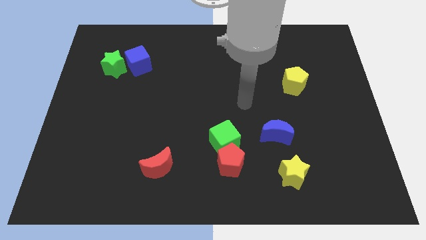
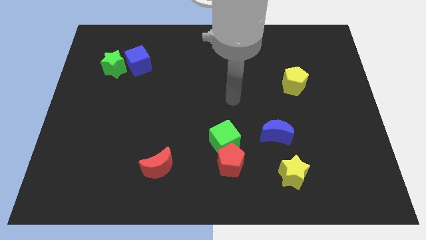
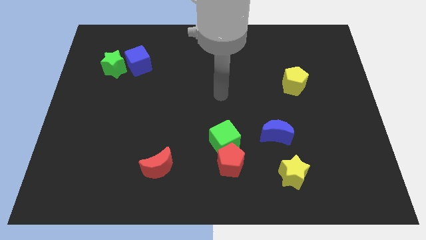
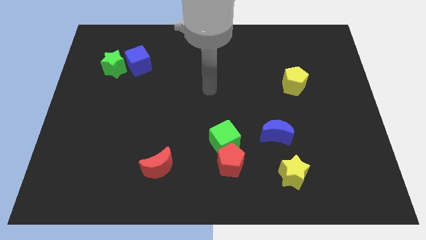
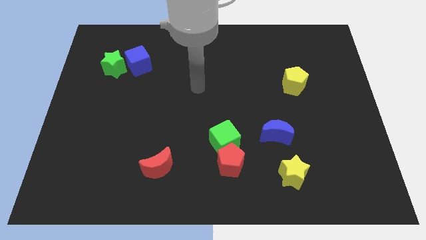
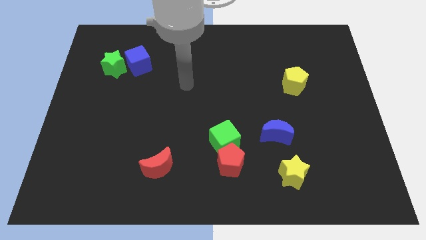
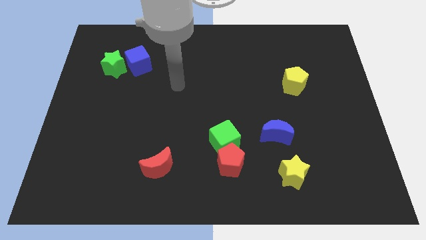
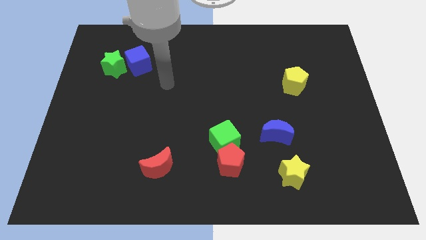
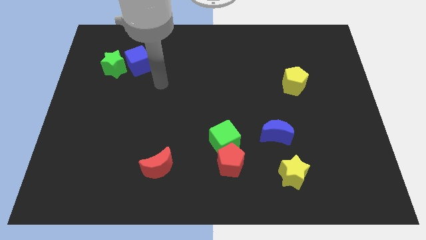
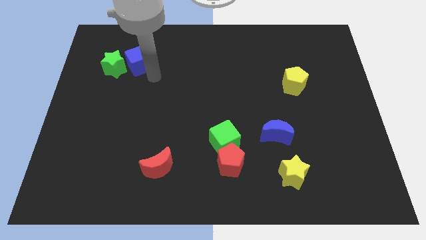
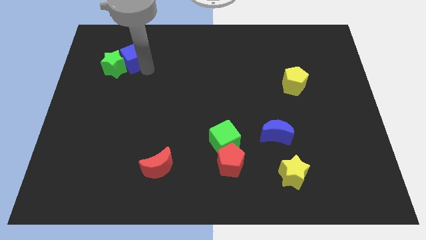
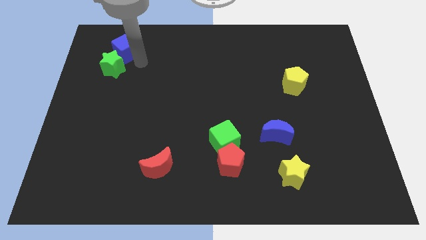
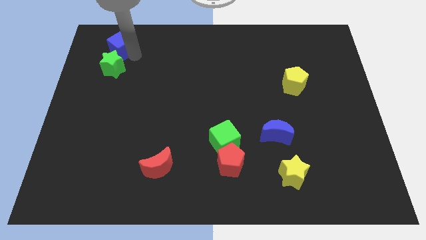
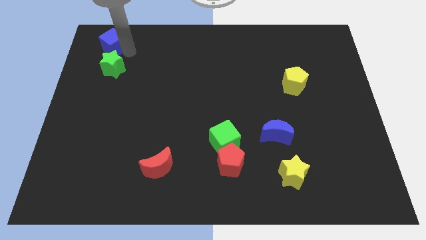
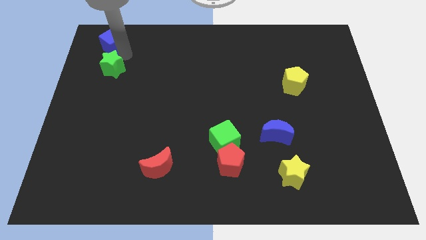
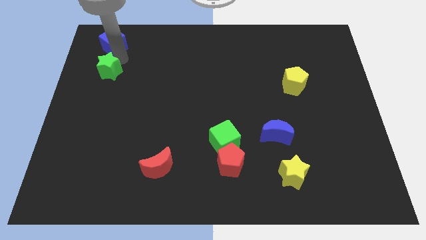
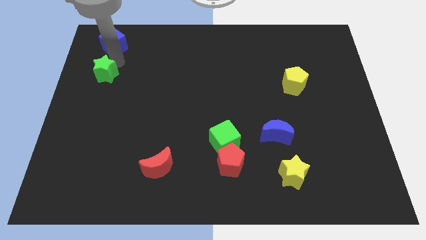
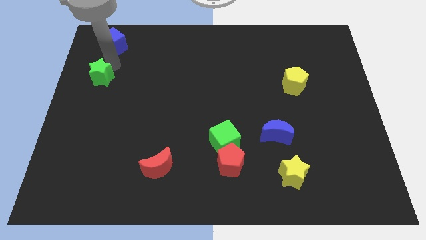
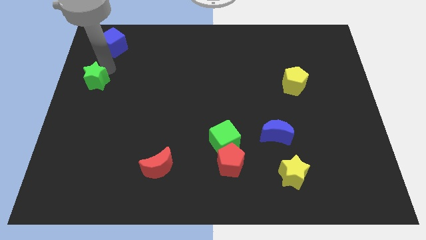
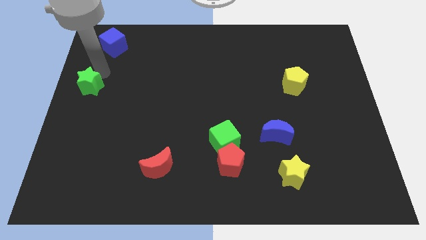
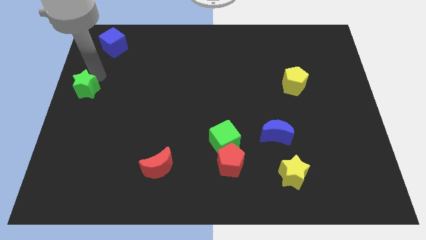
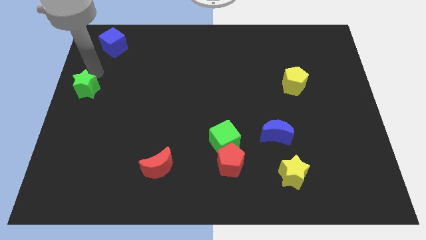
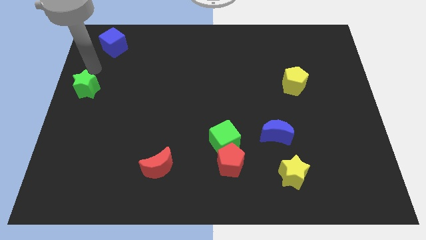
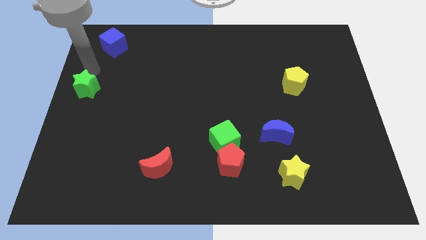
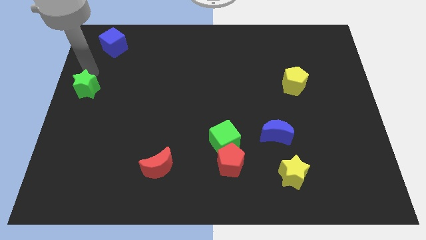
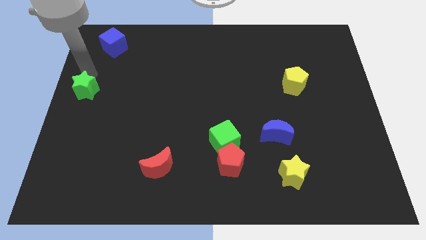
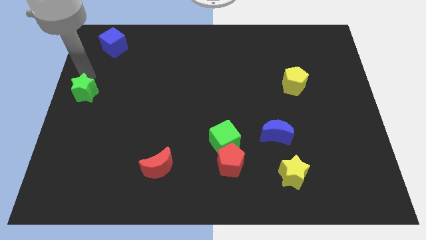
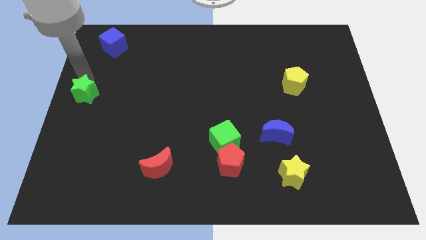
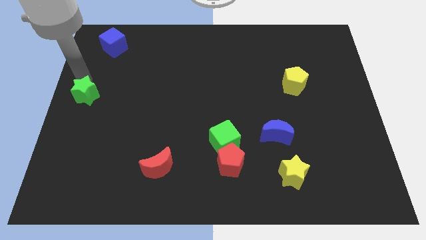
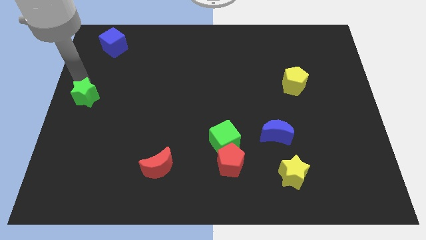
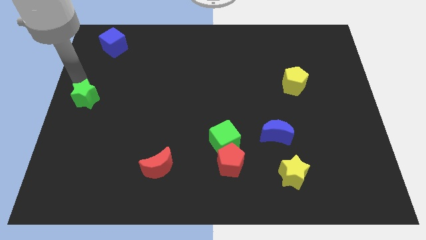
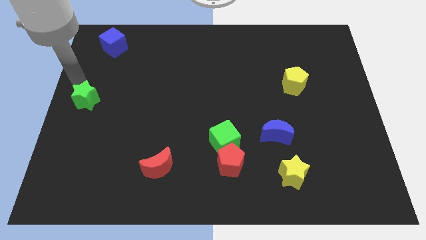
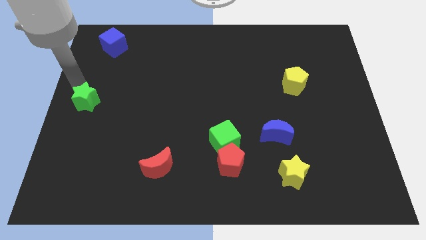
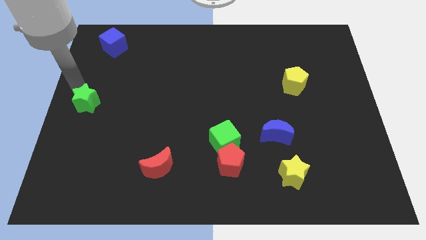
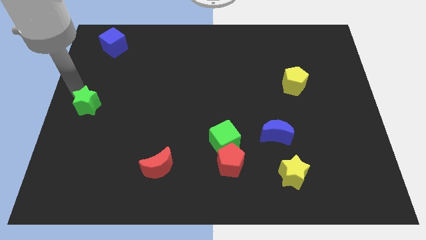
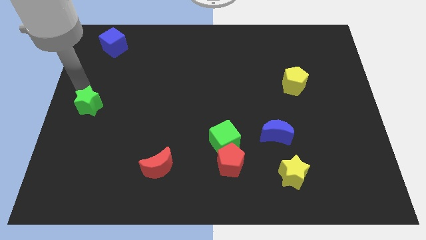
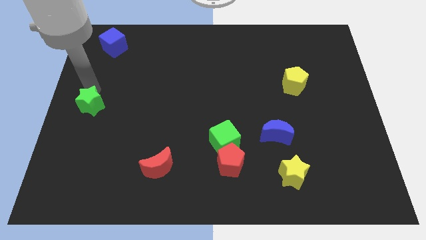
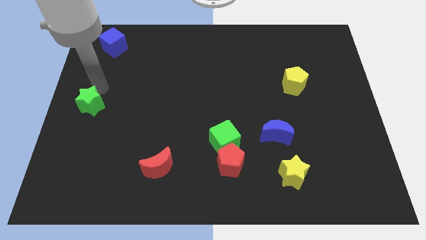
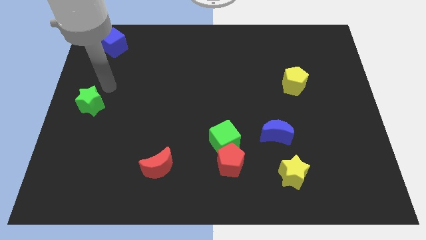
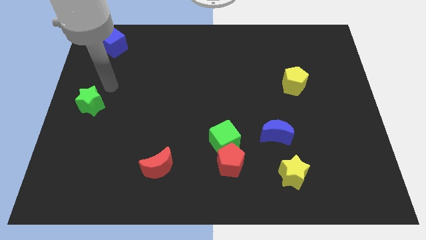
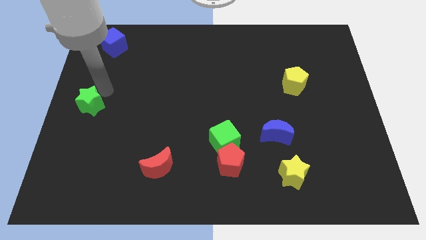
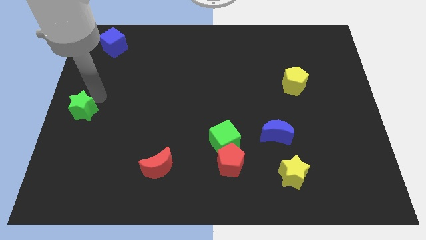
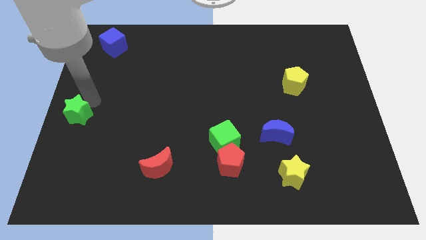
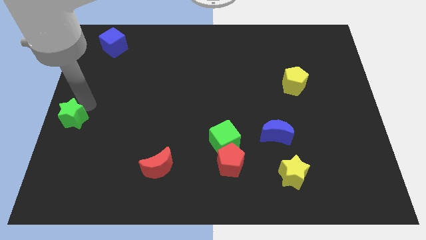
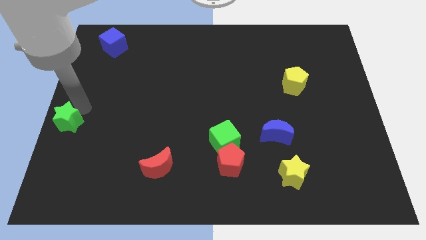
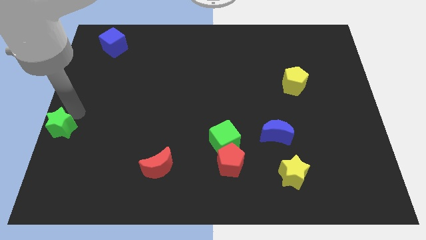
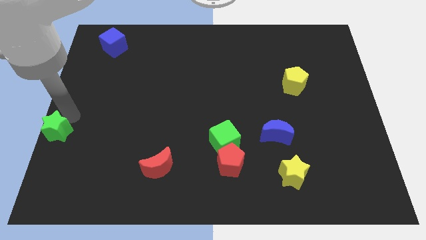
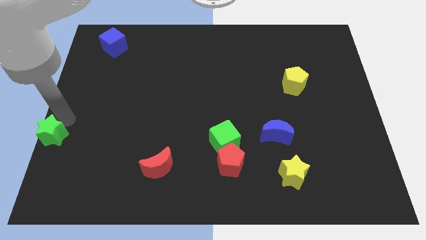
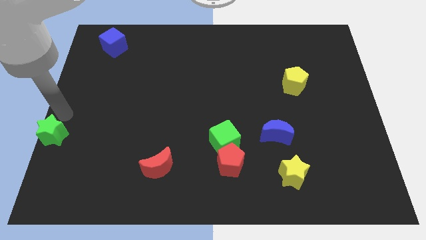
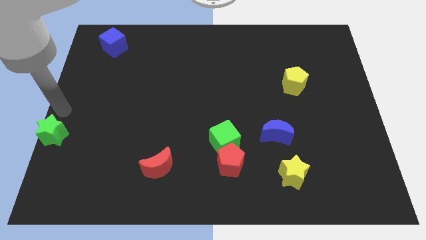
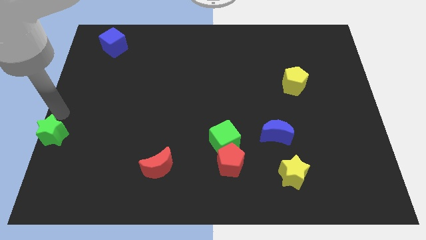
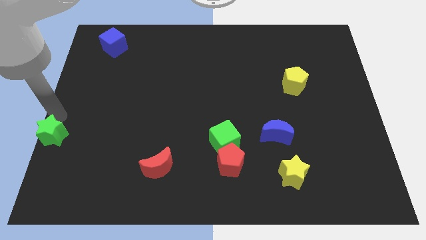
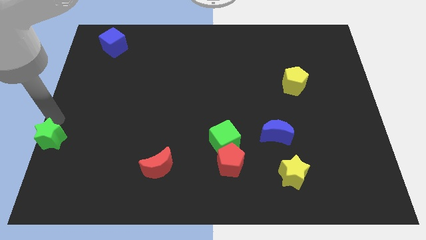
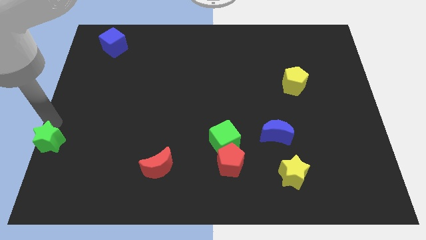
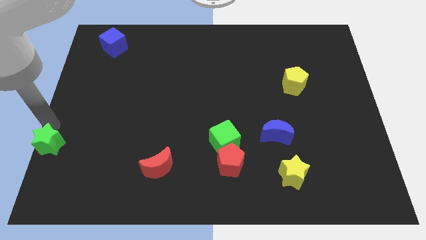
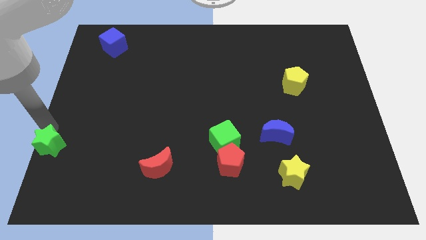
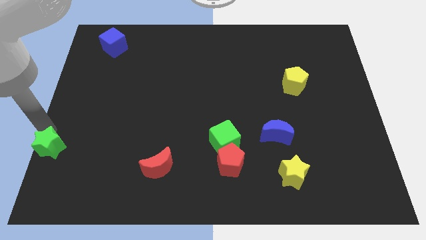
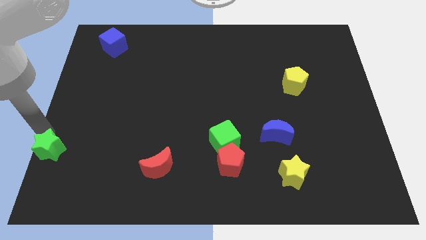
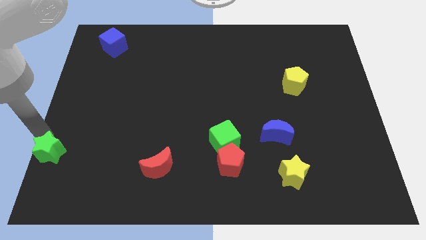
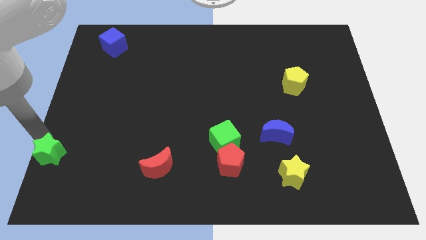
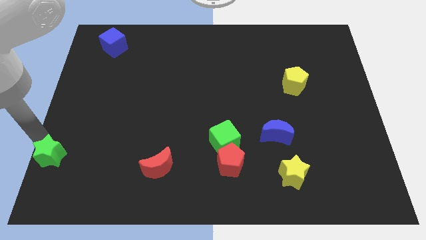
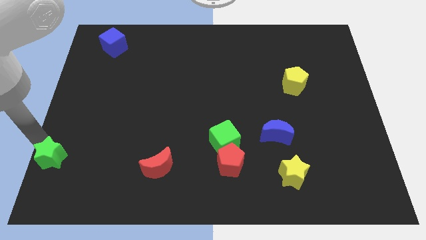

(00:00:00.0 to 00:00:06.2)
push the green star to the lower left corner
